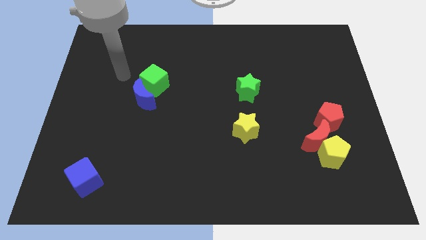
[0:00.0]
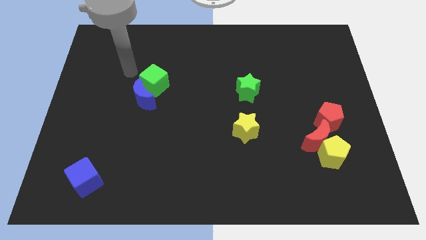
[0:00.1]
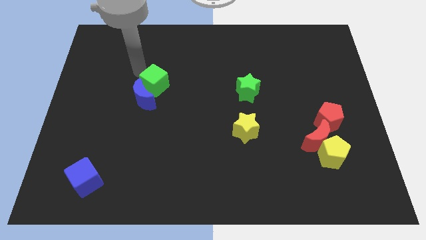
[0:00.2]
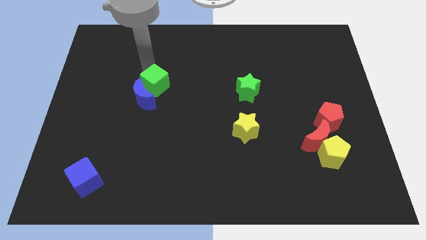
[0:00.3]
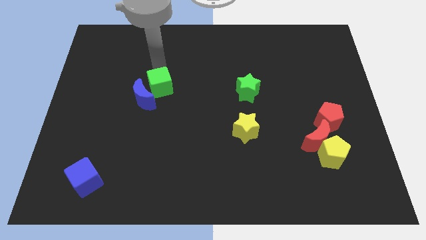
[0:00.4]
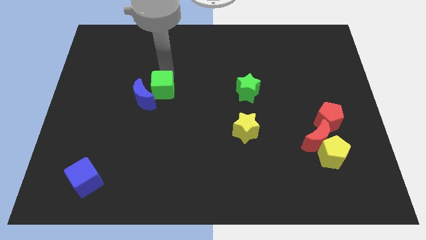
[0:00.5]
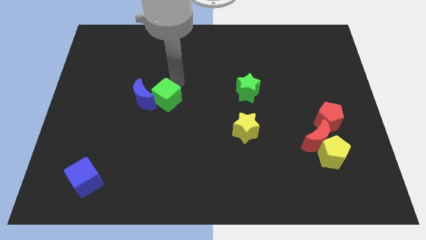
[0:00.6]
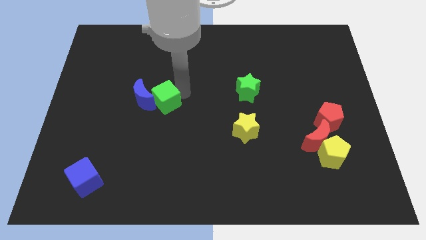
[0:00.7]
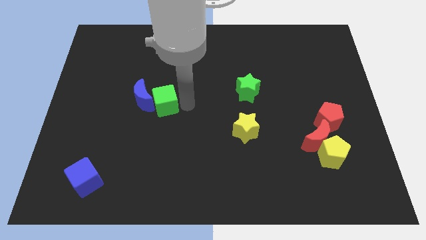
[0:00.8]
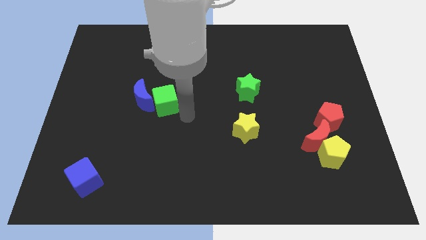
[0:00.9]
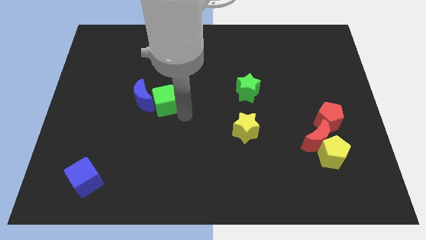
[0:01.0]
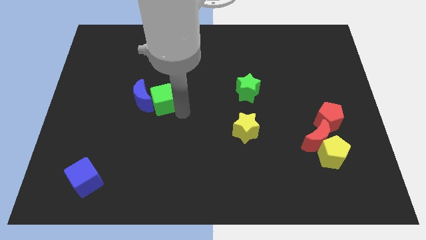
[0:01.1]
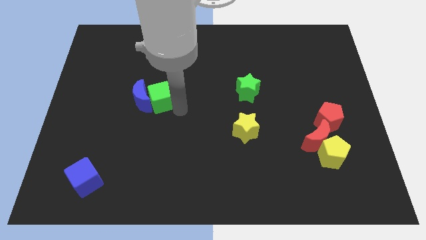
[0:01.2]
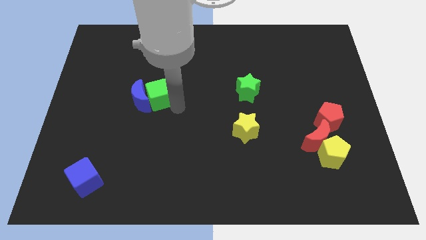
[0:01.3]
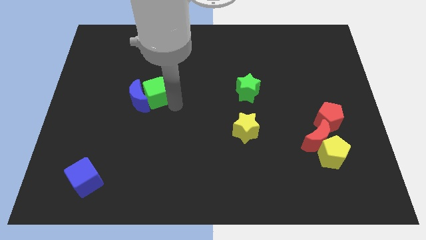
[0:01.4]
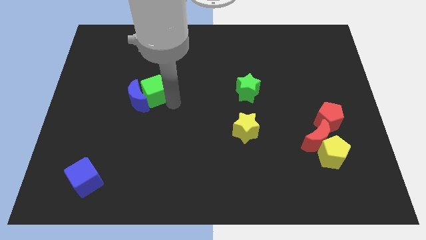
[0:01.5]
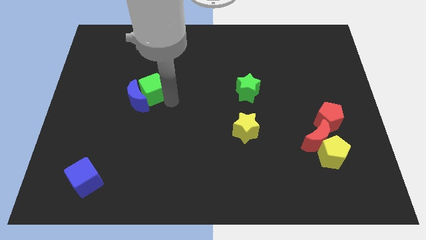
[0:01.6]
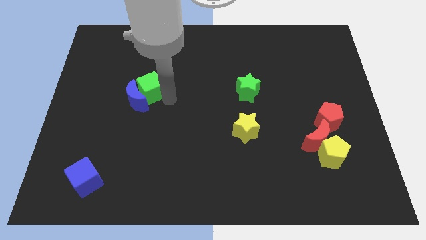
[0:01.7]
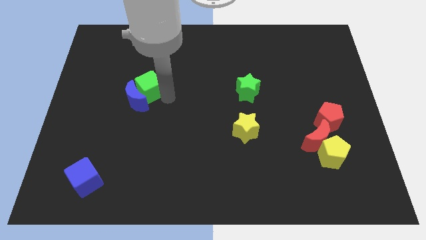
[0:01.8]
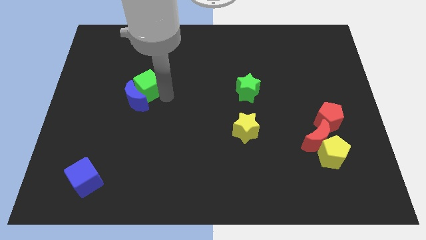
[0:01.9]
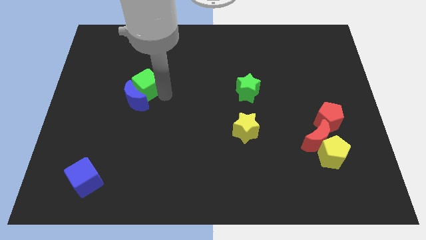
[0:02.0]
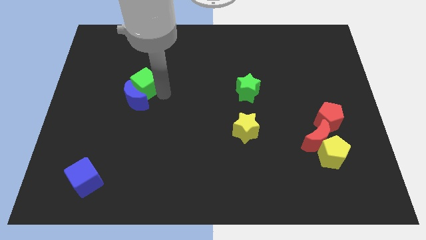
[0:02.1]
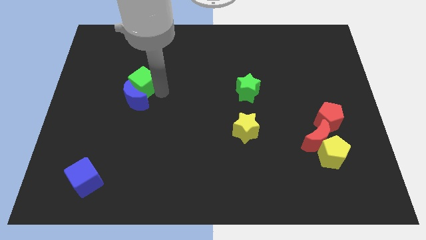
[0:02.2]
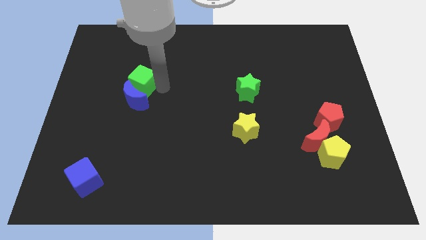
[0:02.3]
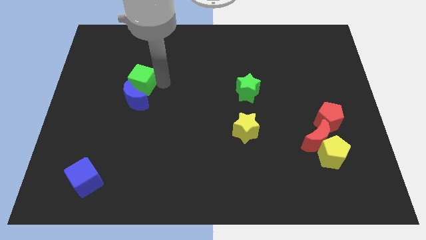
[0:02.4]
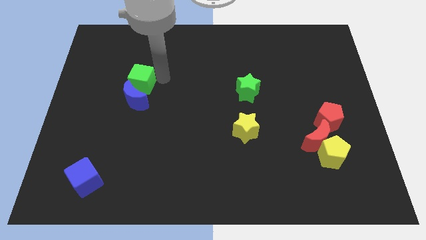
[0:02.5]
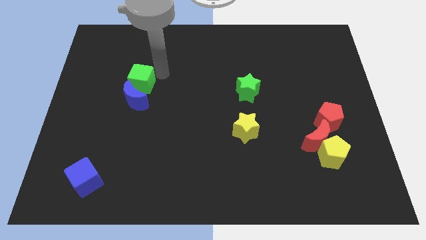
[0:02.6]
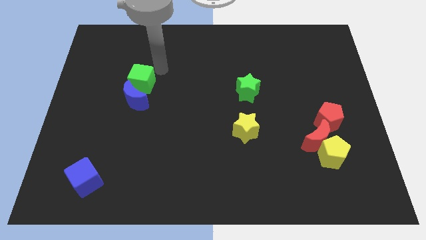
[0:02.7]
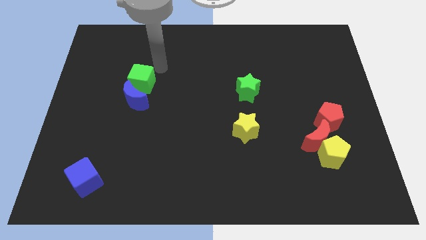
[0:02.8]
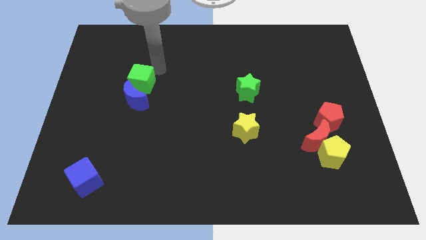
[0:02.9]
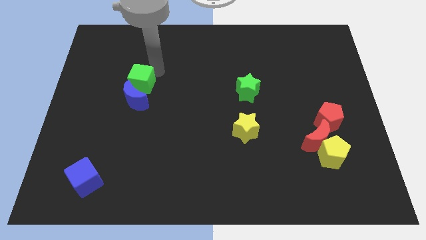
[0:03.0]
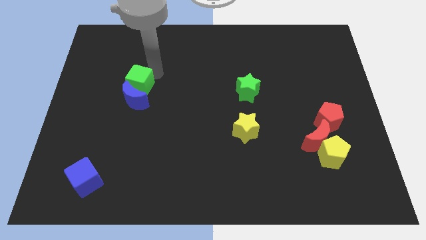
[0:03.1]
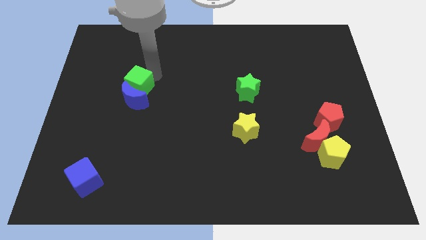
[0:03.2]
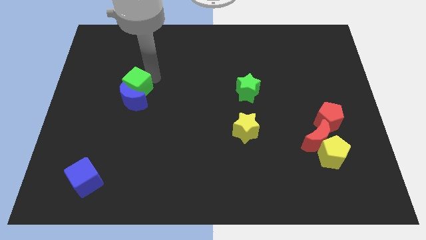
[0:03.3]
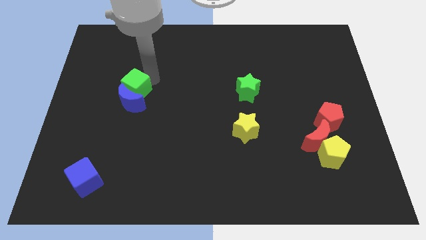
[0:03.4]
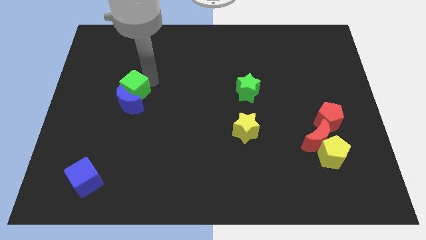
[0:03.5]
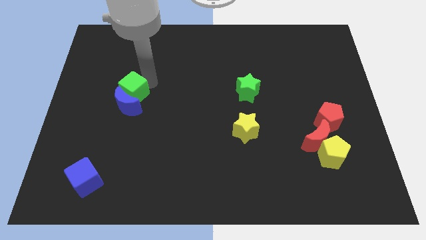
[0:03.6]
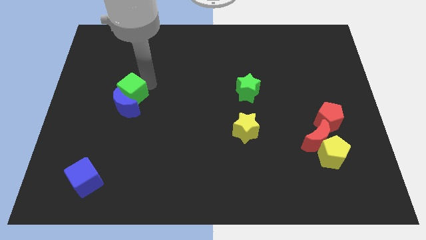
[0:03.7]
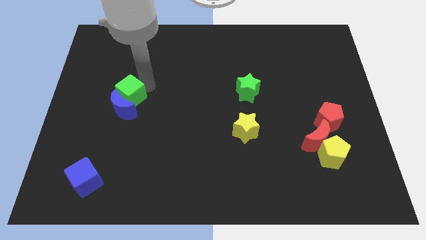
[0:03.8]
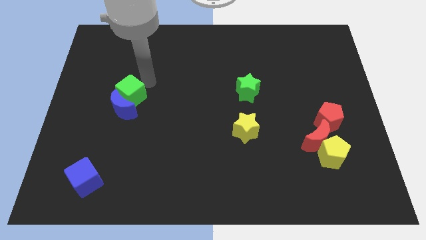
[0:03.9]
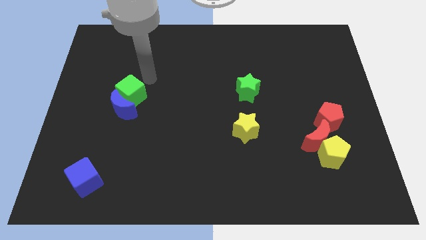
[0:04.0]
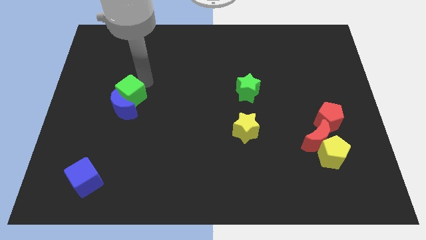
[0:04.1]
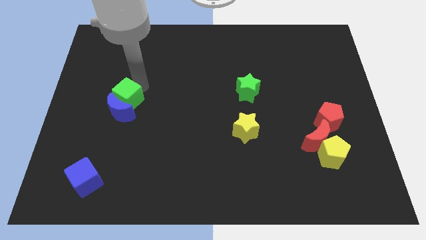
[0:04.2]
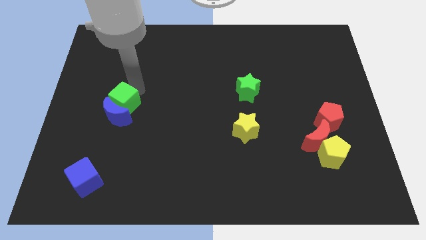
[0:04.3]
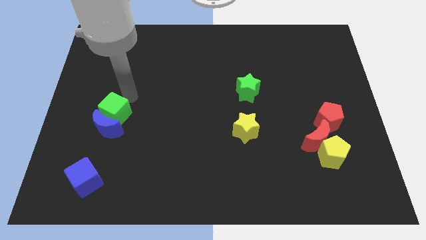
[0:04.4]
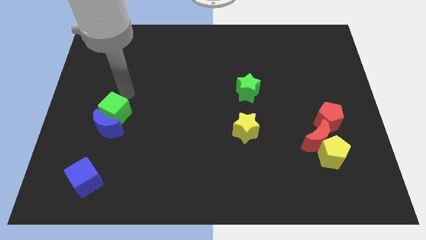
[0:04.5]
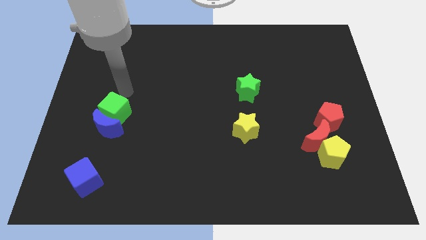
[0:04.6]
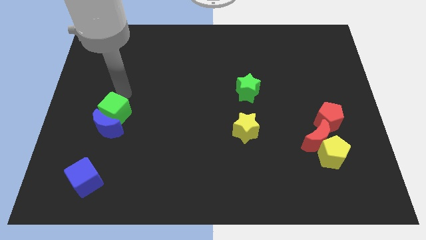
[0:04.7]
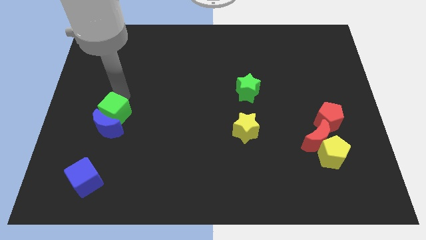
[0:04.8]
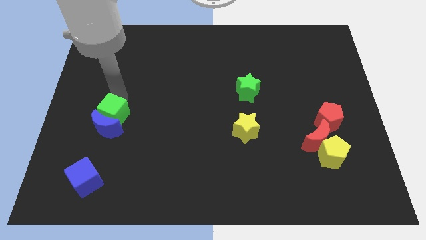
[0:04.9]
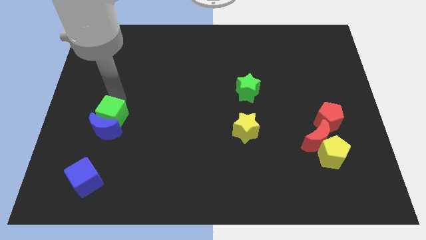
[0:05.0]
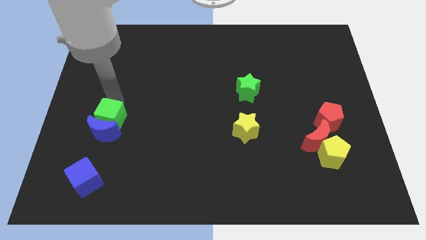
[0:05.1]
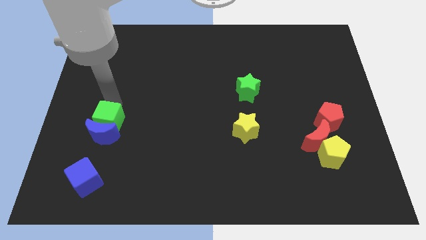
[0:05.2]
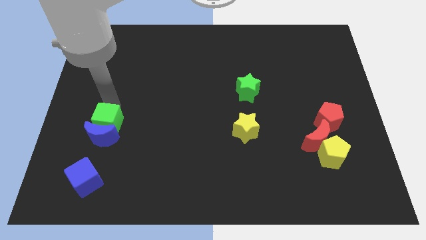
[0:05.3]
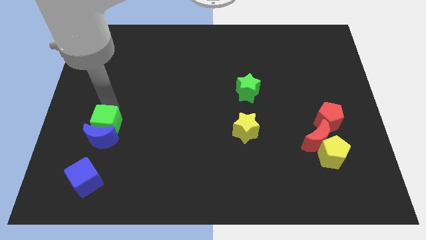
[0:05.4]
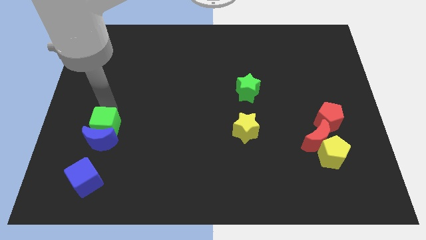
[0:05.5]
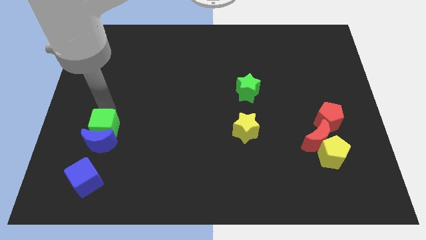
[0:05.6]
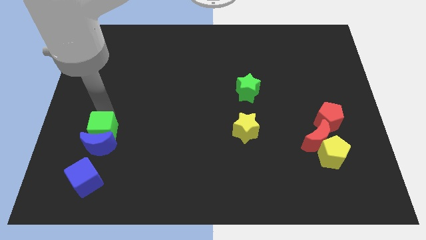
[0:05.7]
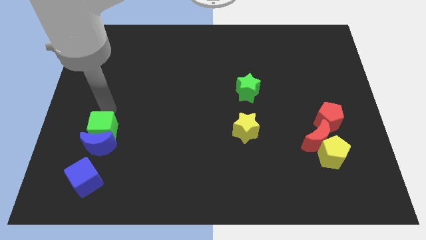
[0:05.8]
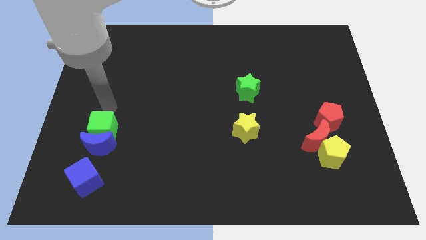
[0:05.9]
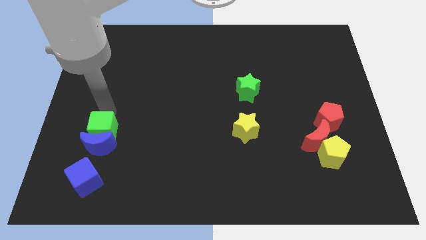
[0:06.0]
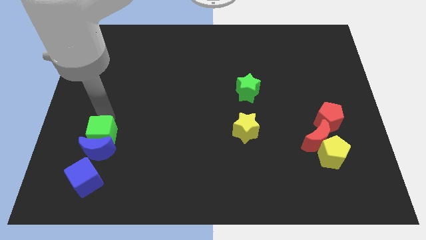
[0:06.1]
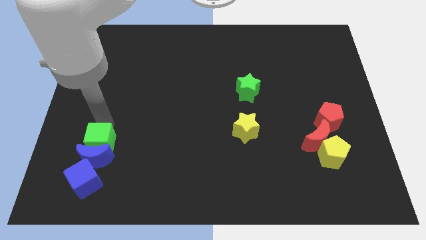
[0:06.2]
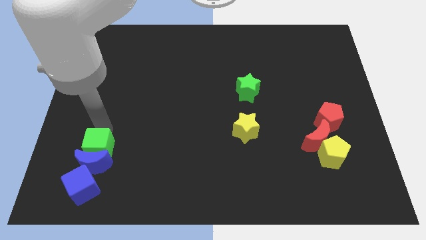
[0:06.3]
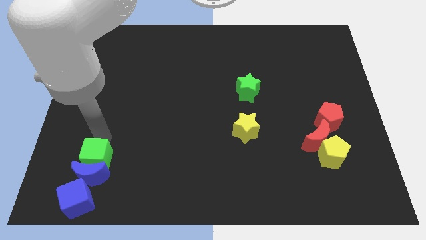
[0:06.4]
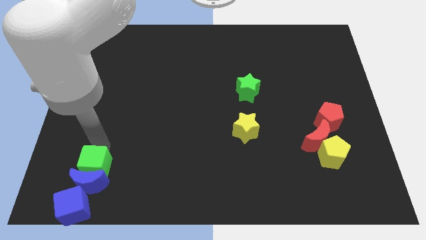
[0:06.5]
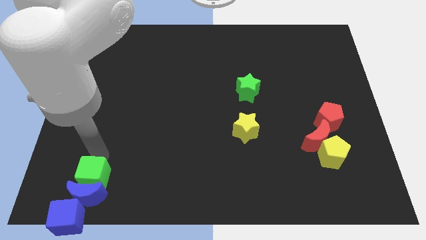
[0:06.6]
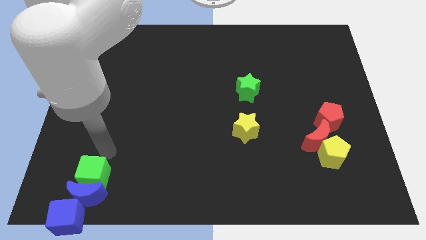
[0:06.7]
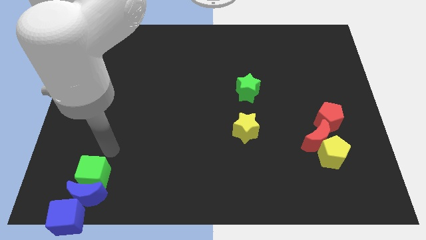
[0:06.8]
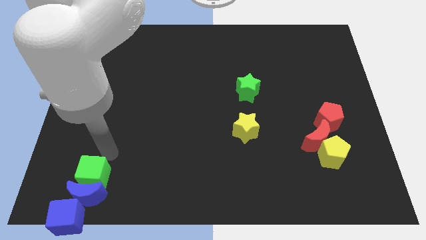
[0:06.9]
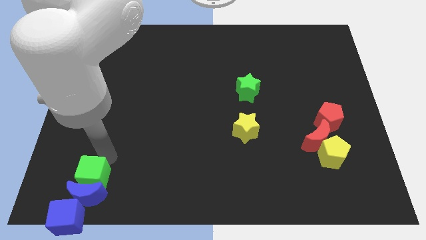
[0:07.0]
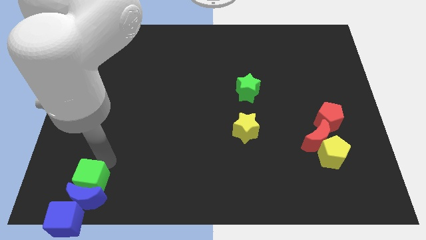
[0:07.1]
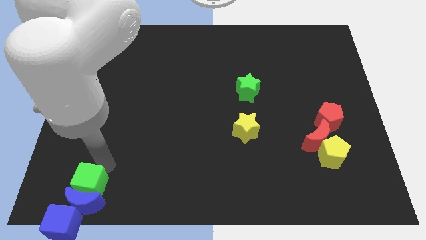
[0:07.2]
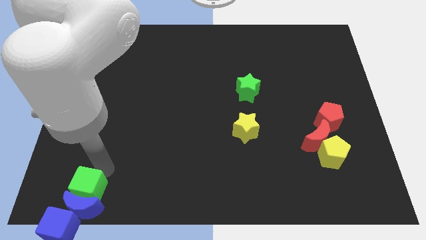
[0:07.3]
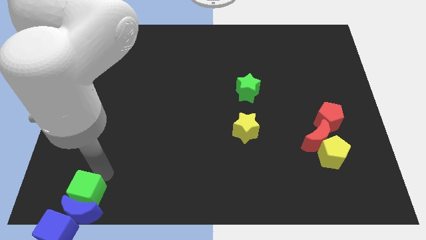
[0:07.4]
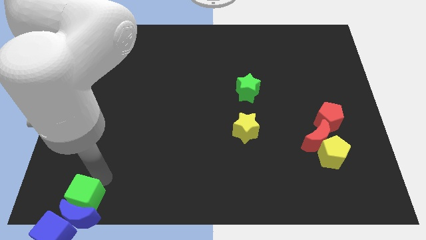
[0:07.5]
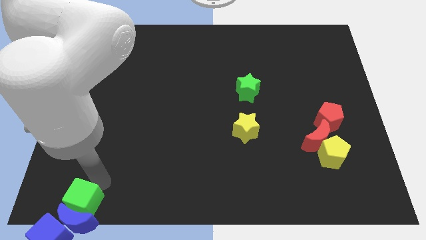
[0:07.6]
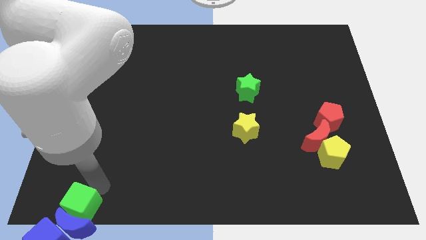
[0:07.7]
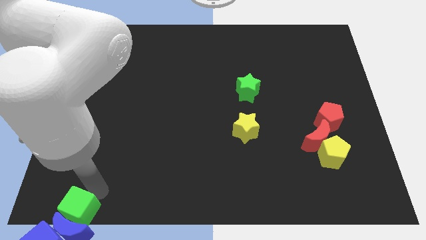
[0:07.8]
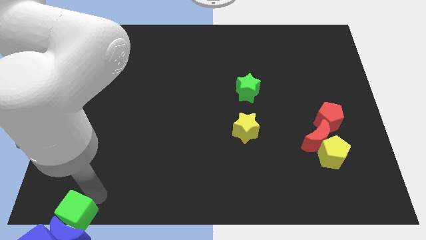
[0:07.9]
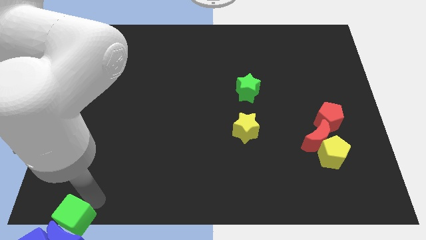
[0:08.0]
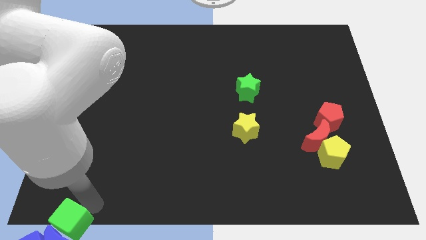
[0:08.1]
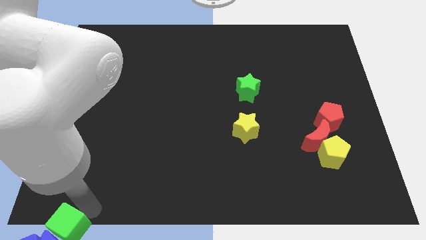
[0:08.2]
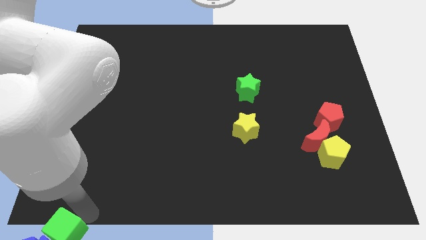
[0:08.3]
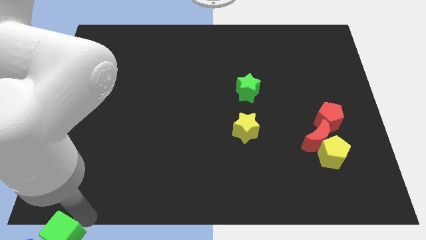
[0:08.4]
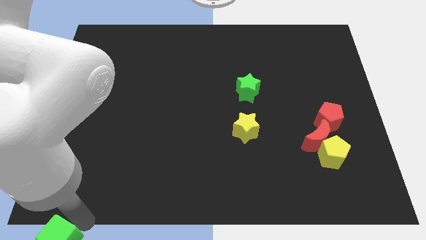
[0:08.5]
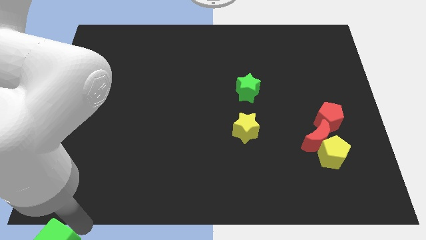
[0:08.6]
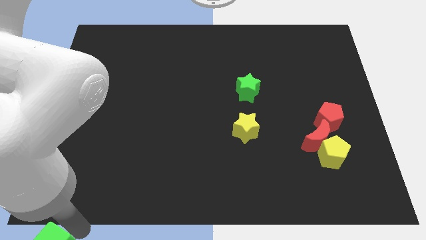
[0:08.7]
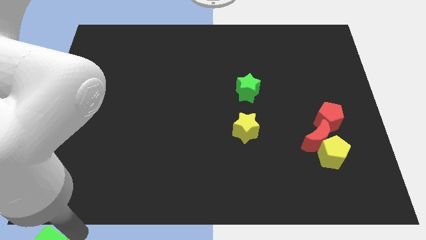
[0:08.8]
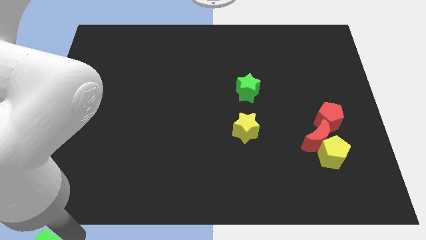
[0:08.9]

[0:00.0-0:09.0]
put the green cube next to the blue cube
